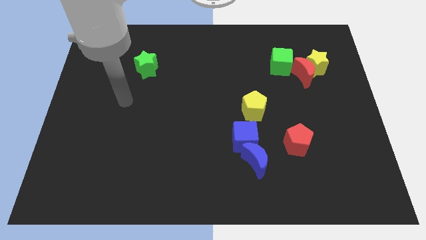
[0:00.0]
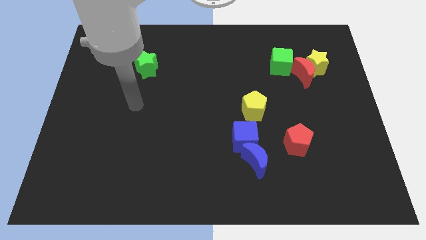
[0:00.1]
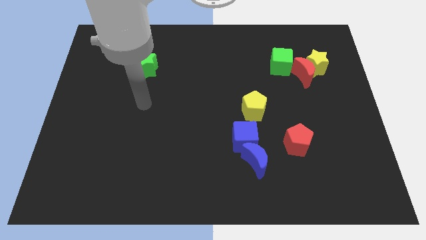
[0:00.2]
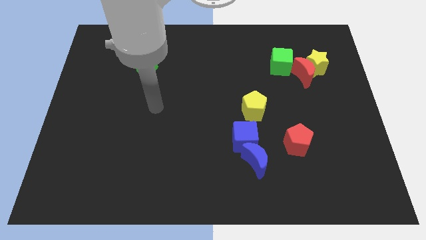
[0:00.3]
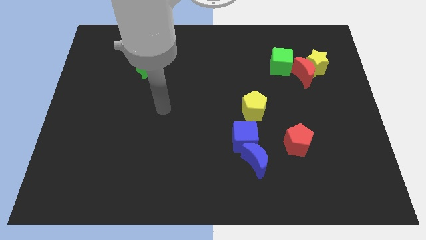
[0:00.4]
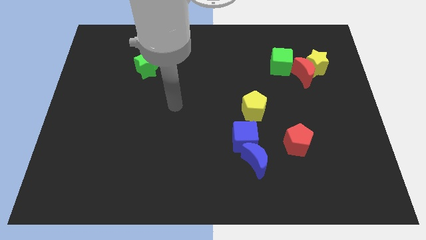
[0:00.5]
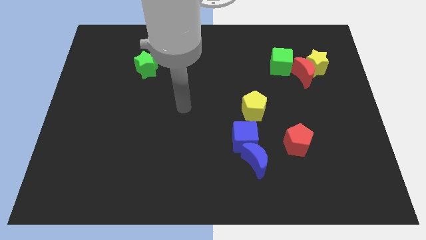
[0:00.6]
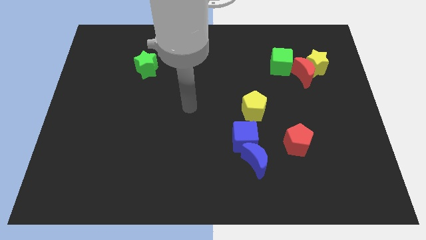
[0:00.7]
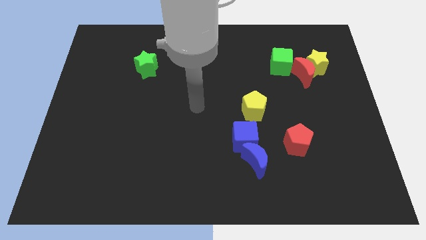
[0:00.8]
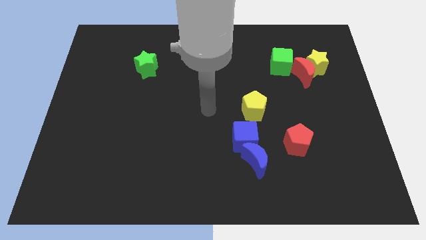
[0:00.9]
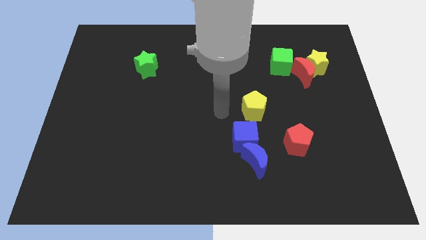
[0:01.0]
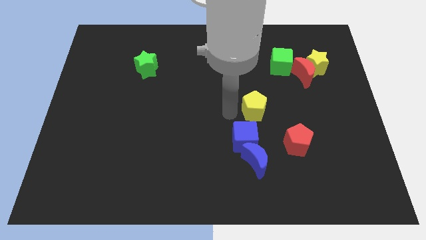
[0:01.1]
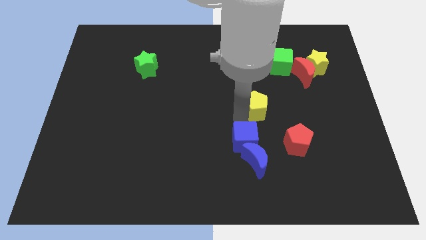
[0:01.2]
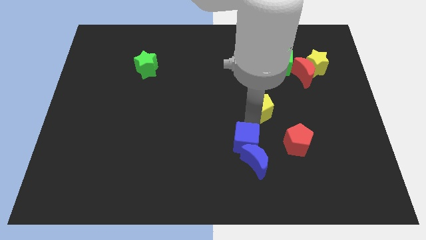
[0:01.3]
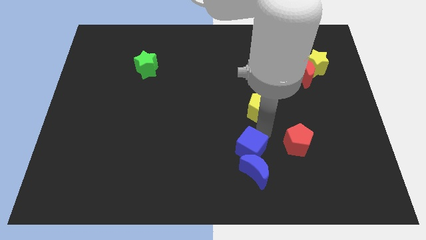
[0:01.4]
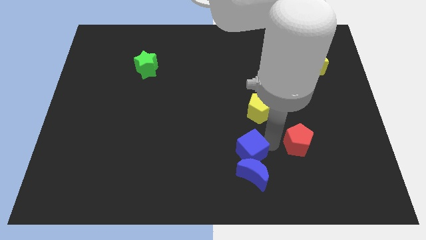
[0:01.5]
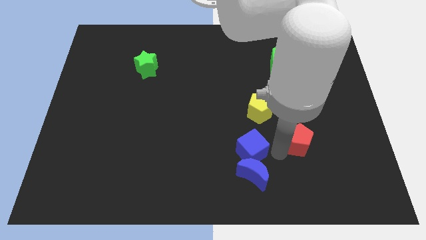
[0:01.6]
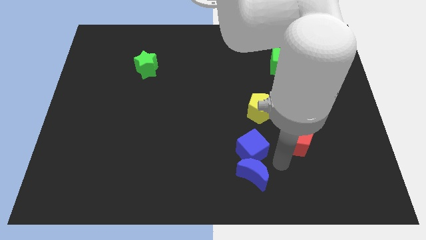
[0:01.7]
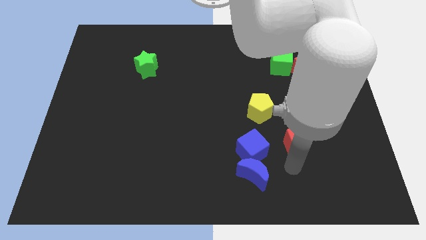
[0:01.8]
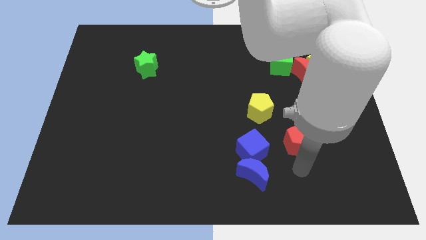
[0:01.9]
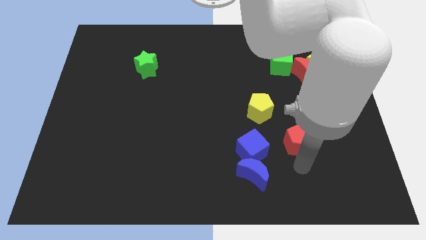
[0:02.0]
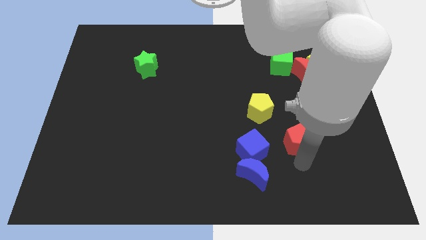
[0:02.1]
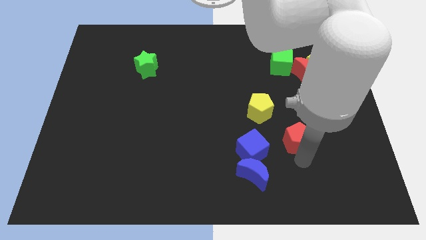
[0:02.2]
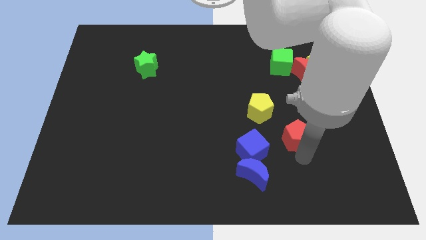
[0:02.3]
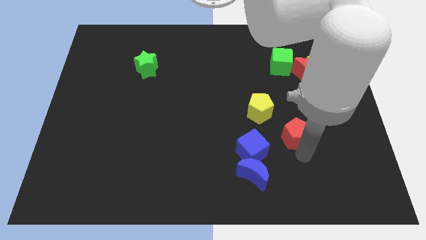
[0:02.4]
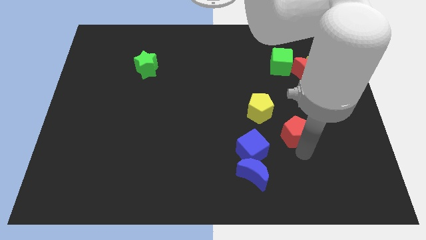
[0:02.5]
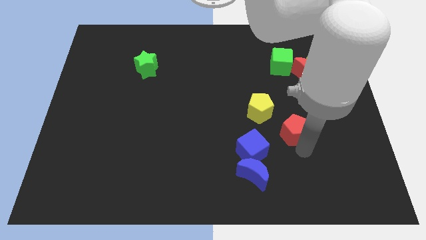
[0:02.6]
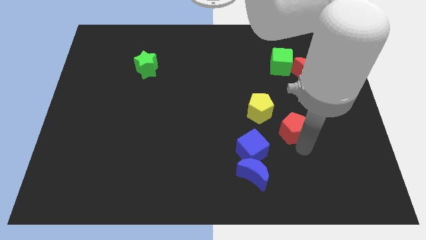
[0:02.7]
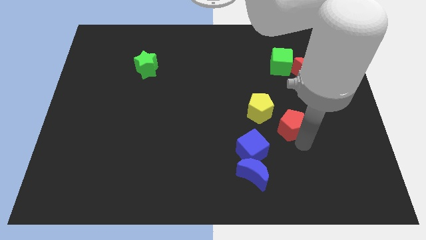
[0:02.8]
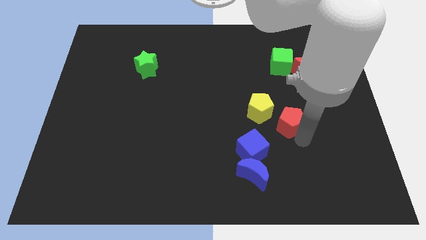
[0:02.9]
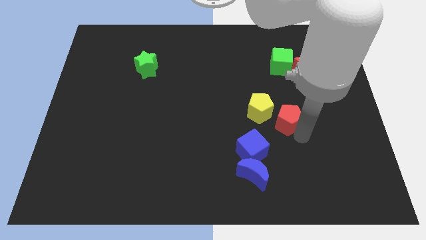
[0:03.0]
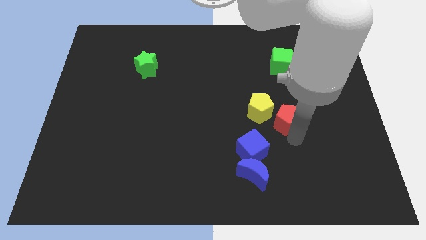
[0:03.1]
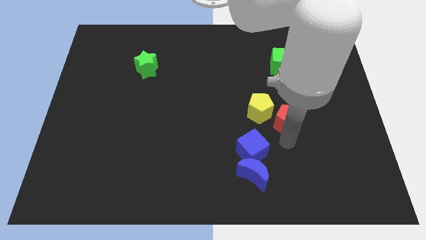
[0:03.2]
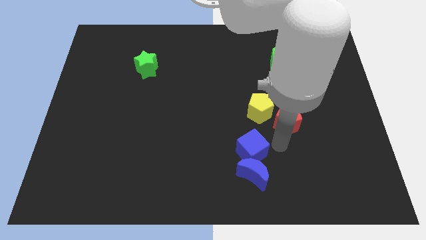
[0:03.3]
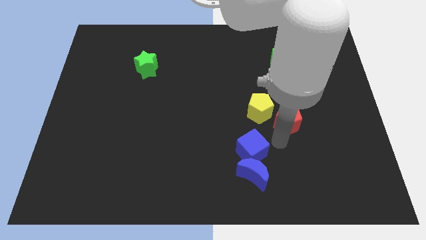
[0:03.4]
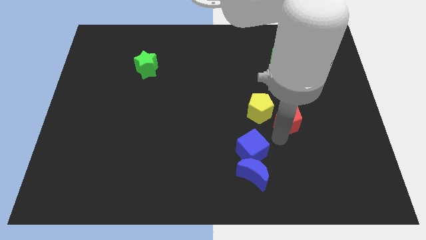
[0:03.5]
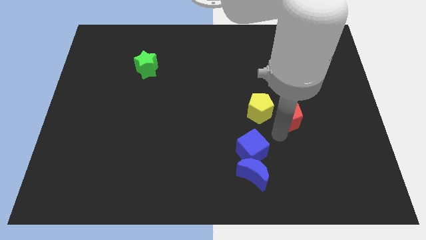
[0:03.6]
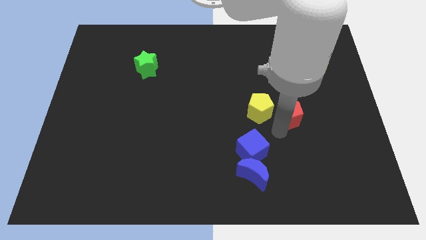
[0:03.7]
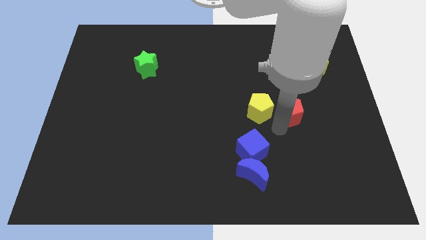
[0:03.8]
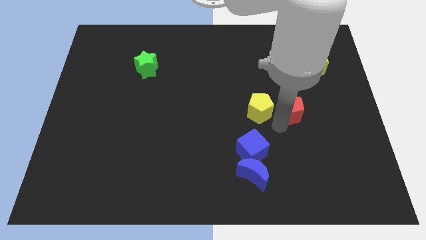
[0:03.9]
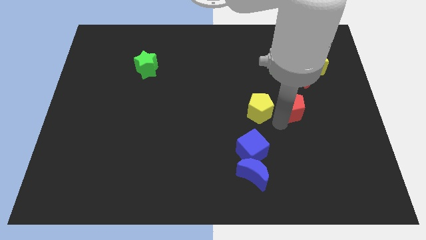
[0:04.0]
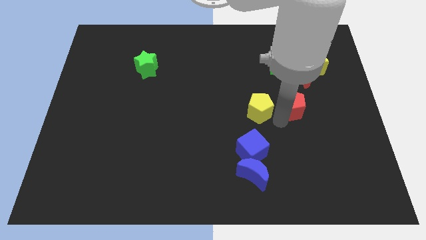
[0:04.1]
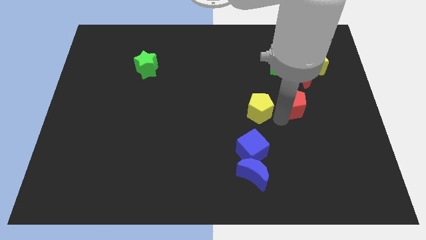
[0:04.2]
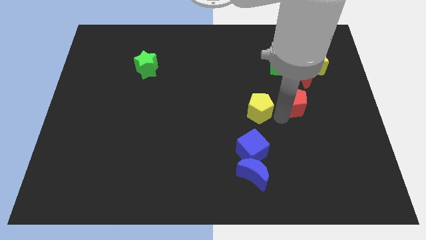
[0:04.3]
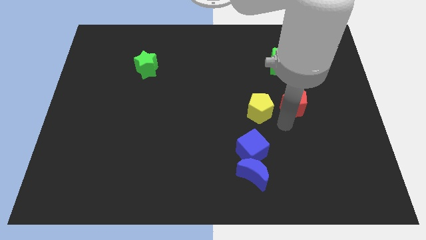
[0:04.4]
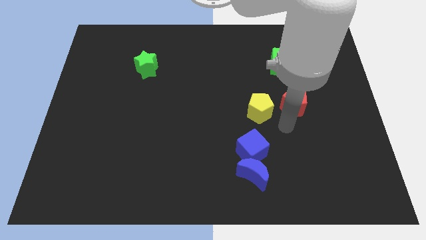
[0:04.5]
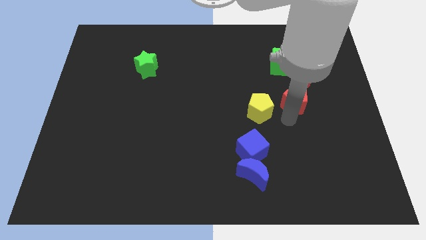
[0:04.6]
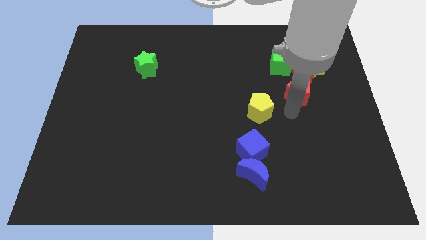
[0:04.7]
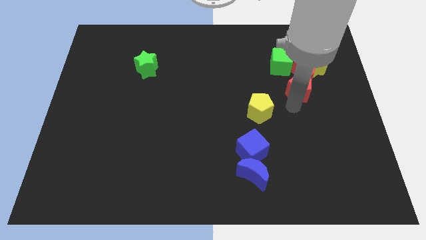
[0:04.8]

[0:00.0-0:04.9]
push the red pentagon next to the red moon

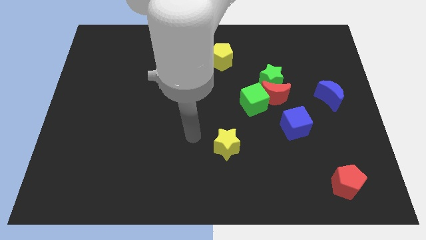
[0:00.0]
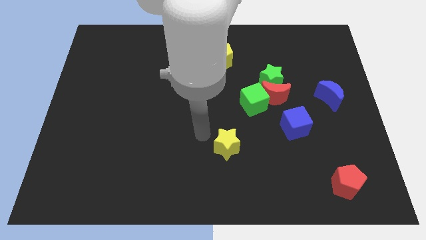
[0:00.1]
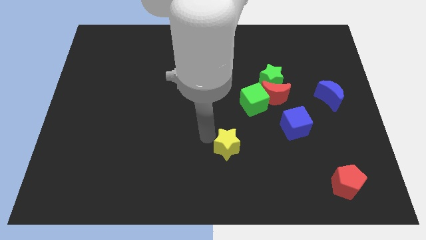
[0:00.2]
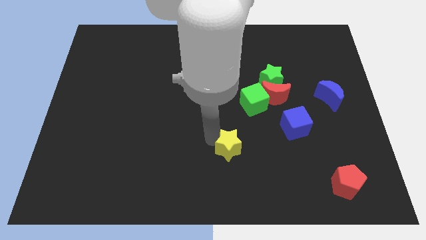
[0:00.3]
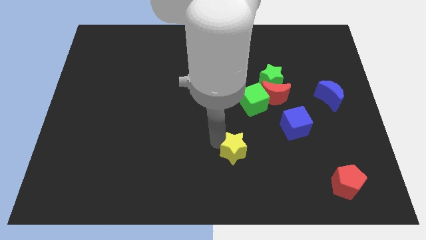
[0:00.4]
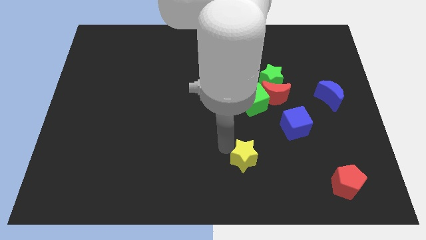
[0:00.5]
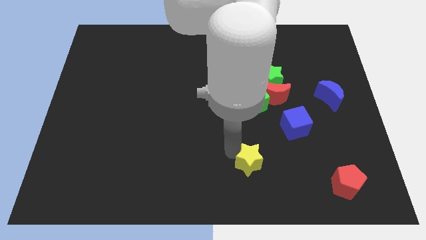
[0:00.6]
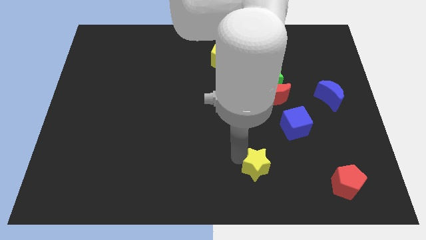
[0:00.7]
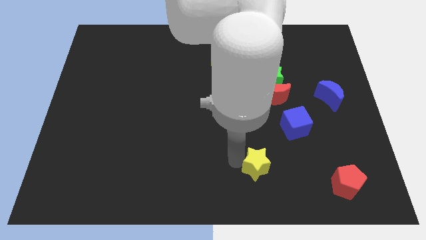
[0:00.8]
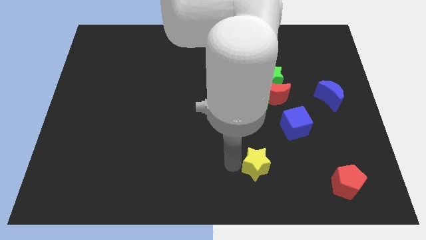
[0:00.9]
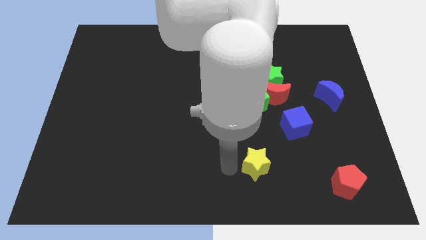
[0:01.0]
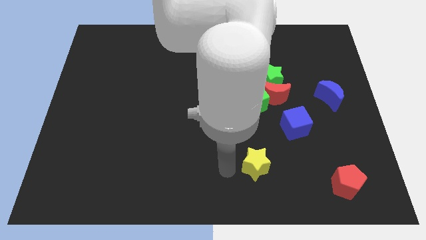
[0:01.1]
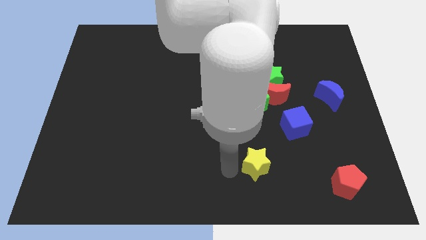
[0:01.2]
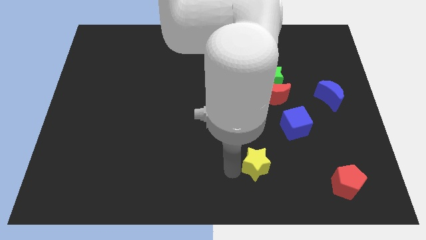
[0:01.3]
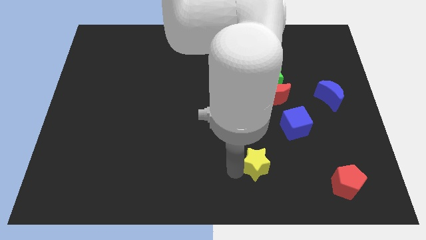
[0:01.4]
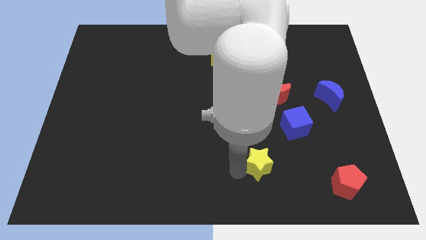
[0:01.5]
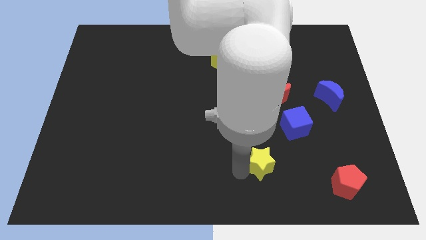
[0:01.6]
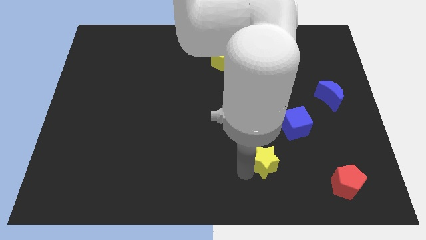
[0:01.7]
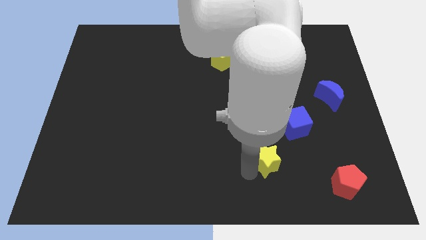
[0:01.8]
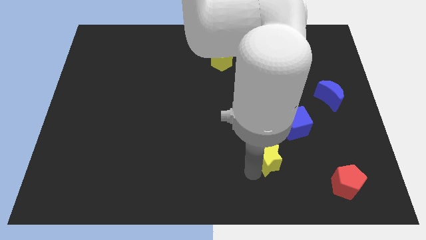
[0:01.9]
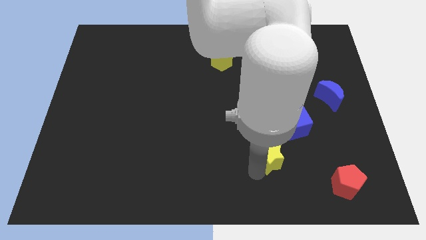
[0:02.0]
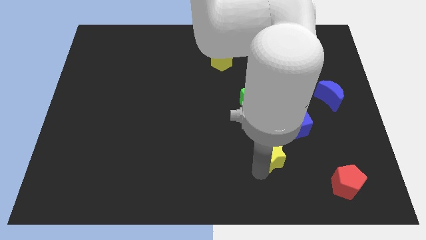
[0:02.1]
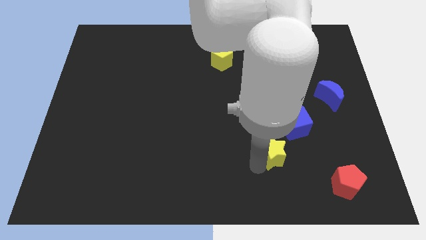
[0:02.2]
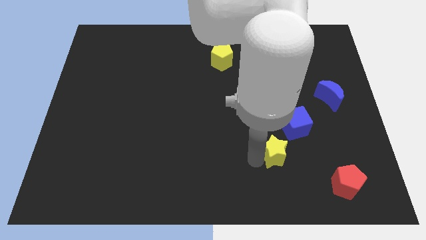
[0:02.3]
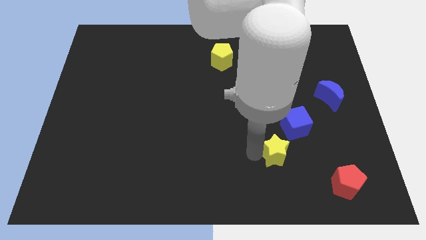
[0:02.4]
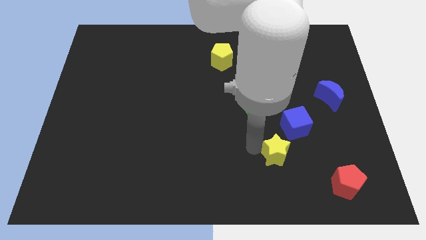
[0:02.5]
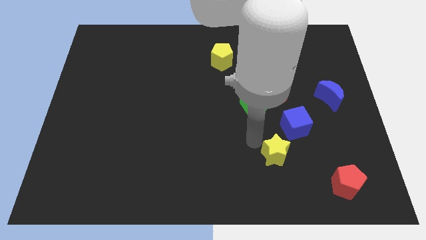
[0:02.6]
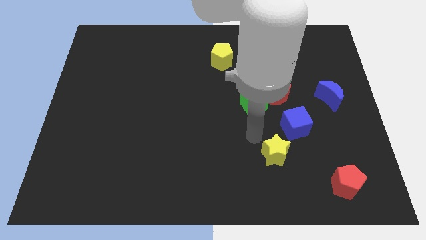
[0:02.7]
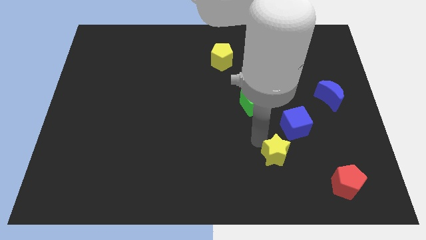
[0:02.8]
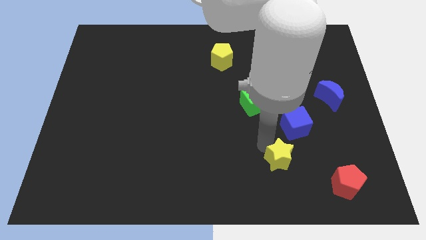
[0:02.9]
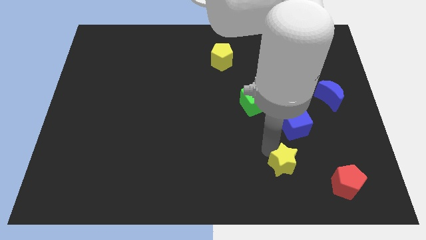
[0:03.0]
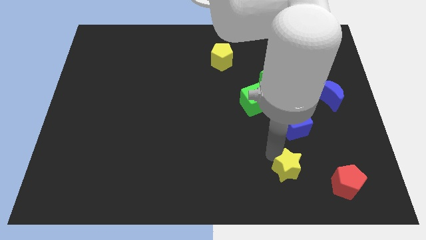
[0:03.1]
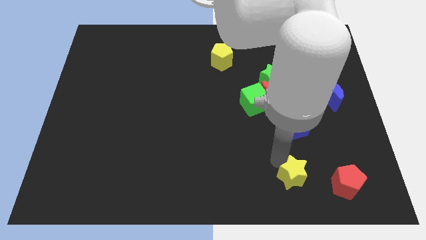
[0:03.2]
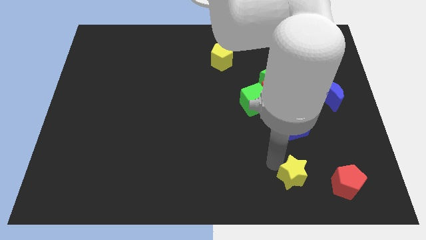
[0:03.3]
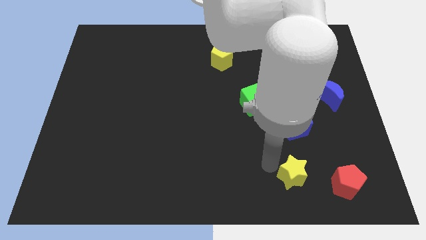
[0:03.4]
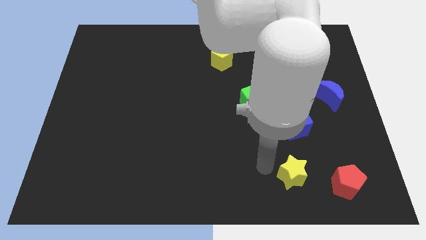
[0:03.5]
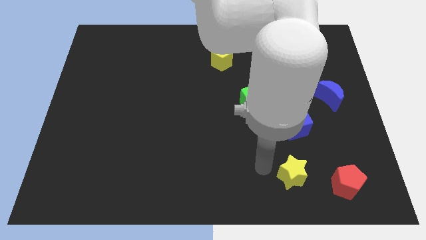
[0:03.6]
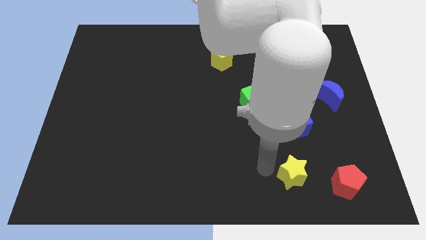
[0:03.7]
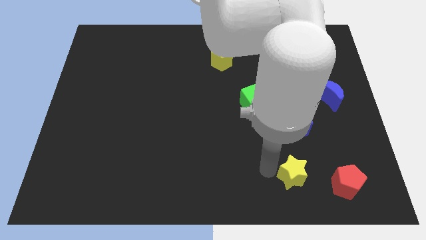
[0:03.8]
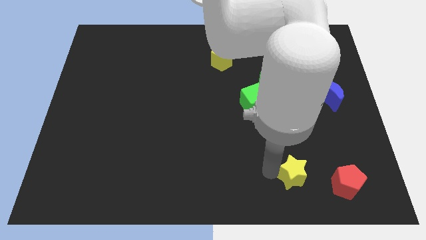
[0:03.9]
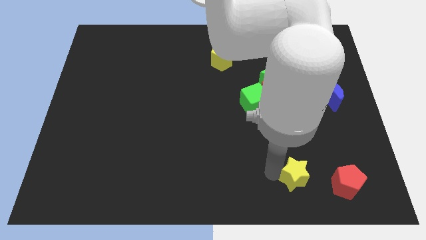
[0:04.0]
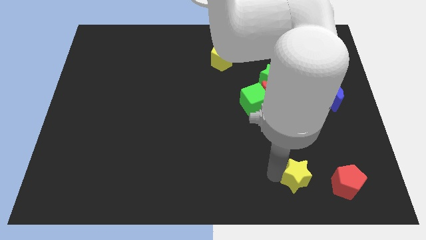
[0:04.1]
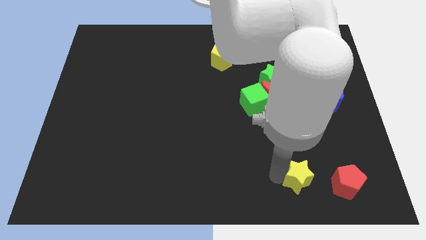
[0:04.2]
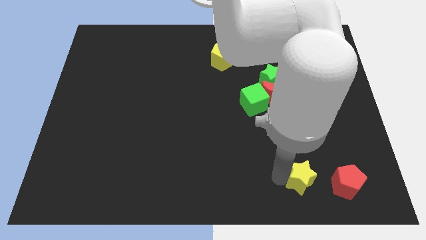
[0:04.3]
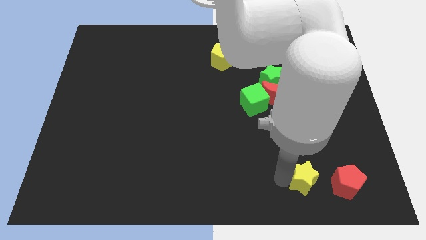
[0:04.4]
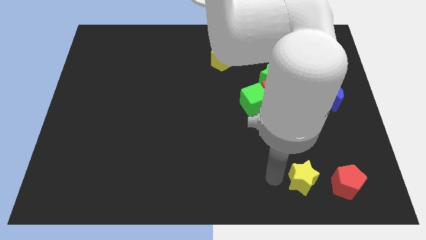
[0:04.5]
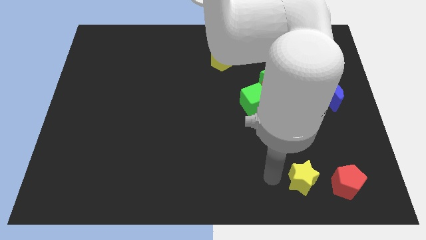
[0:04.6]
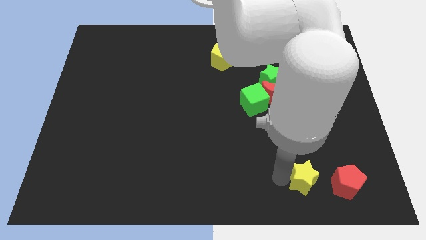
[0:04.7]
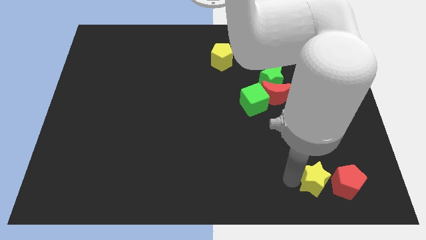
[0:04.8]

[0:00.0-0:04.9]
push the yellow star close to the red pentagon
